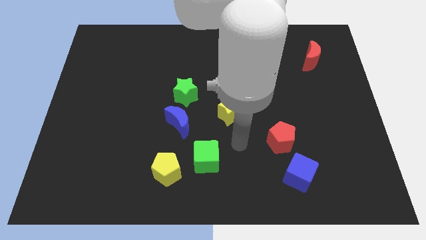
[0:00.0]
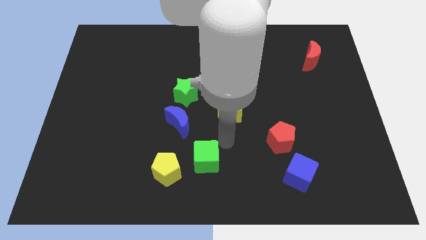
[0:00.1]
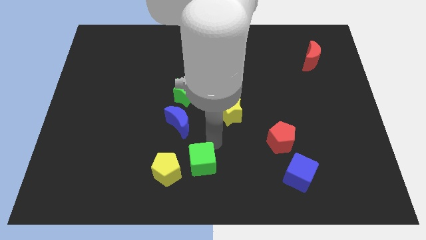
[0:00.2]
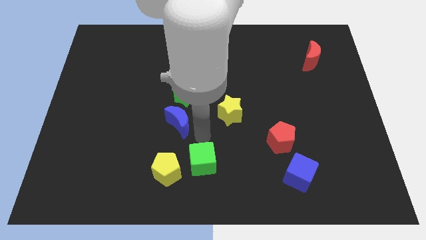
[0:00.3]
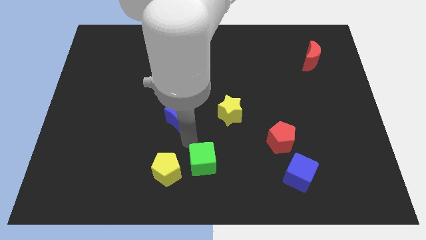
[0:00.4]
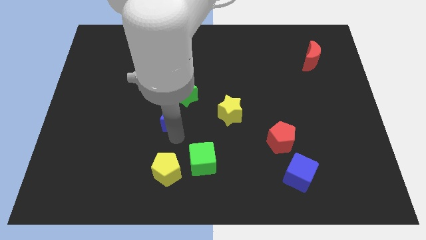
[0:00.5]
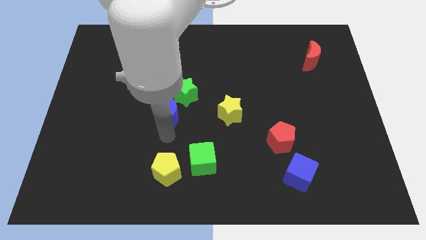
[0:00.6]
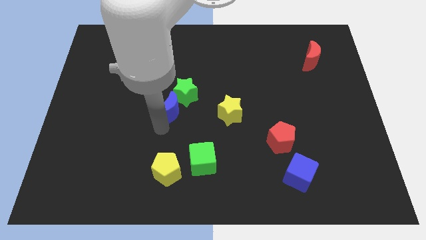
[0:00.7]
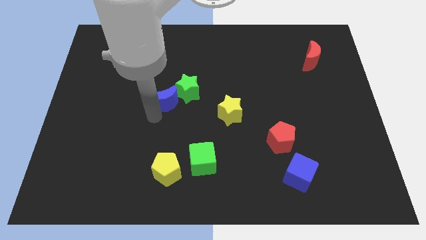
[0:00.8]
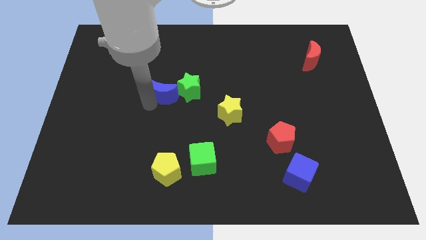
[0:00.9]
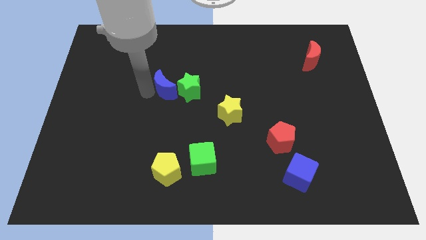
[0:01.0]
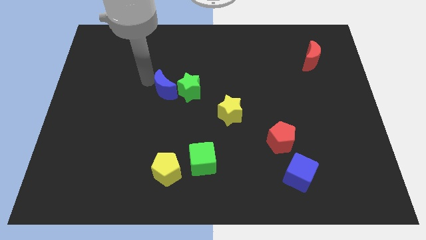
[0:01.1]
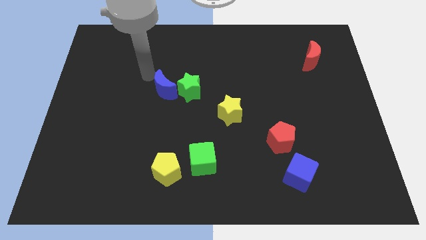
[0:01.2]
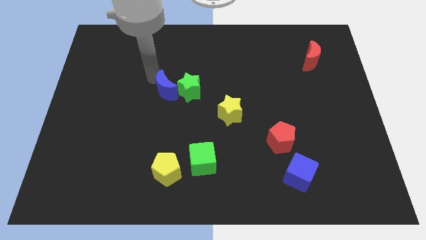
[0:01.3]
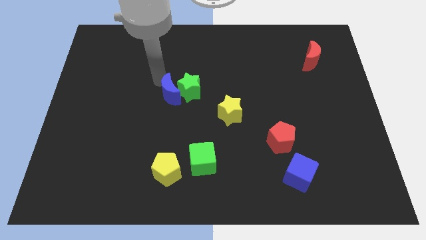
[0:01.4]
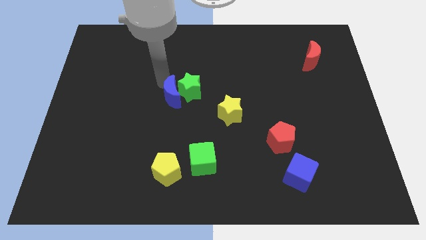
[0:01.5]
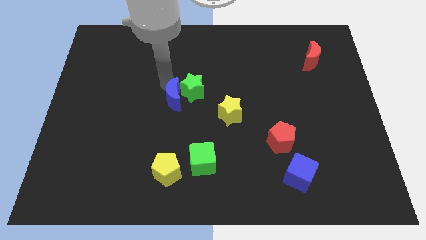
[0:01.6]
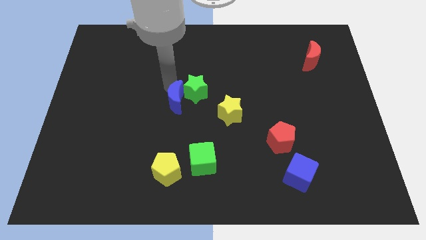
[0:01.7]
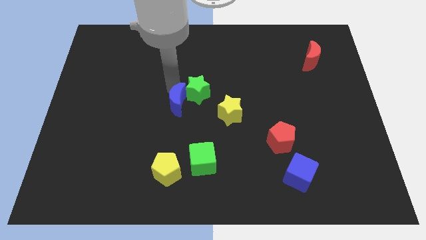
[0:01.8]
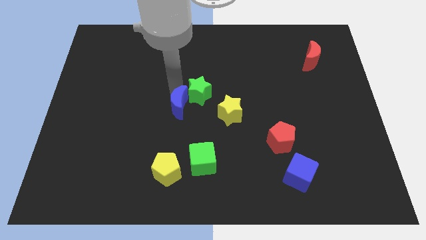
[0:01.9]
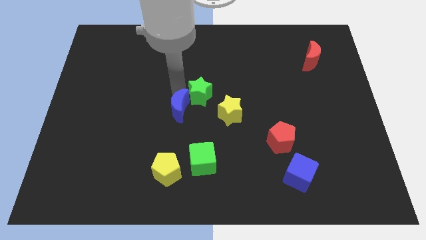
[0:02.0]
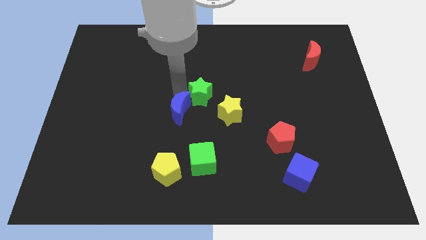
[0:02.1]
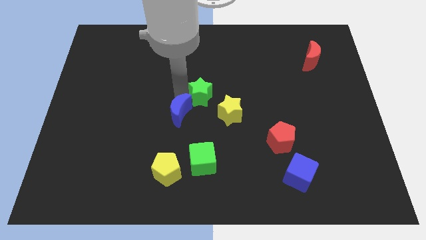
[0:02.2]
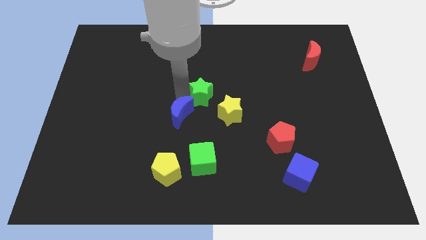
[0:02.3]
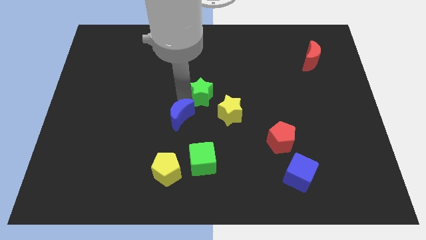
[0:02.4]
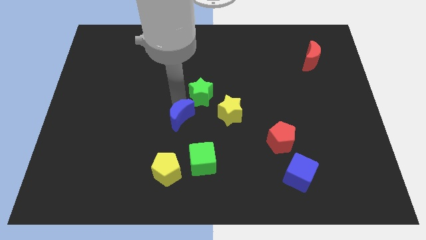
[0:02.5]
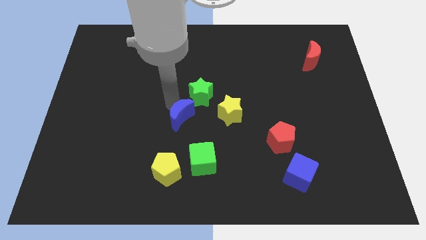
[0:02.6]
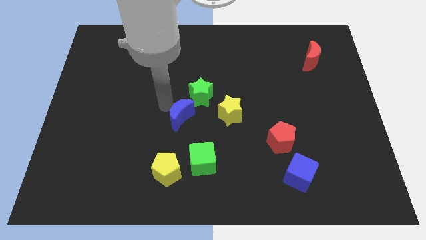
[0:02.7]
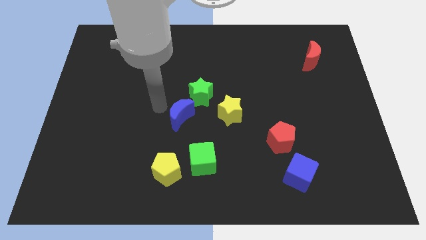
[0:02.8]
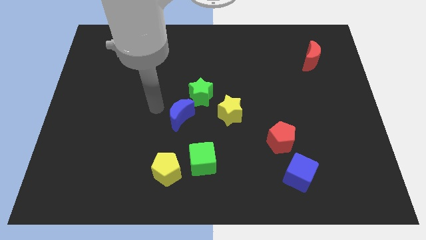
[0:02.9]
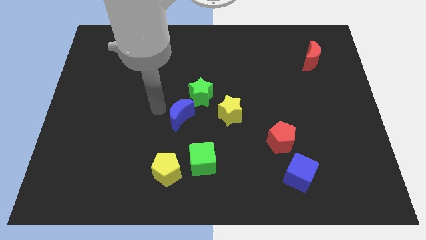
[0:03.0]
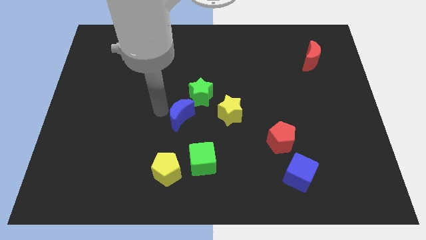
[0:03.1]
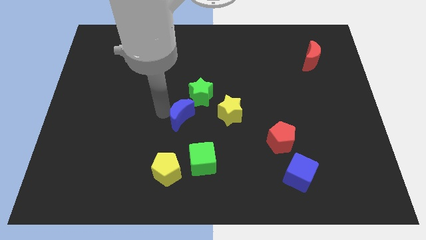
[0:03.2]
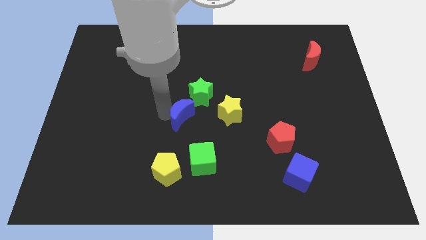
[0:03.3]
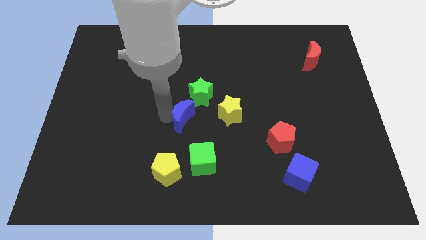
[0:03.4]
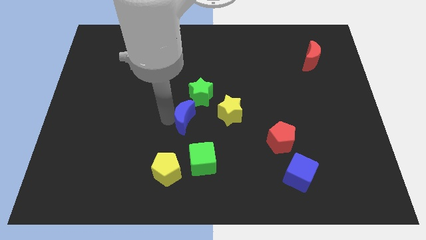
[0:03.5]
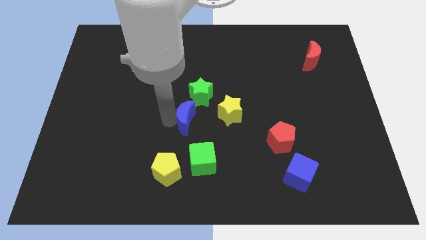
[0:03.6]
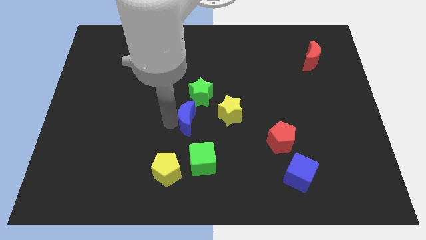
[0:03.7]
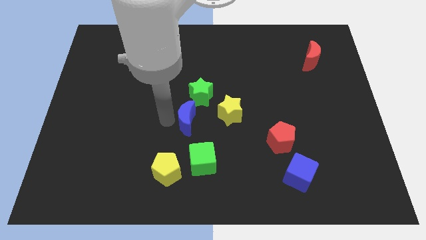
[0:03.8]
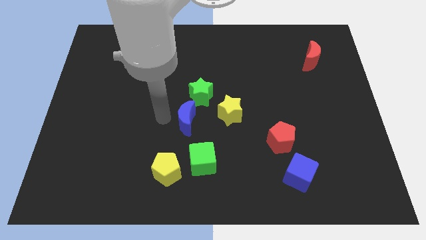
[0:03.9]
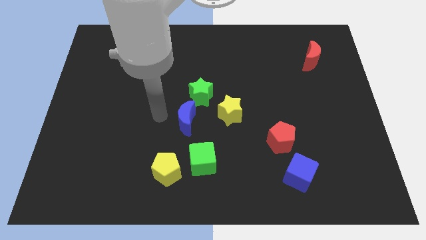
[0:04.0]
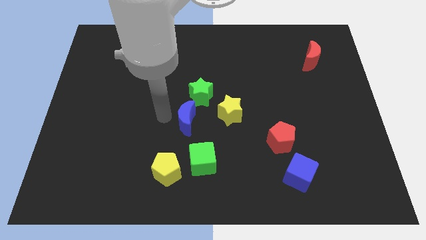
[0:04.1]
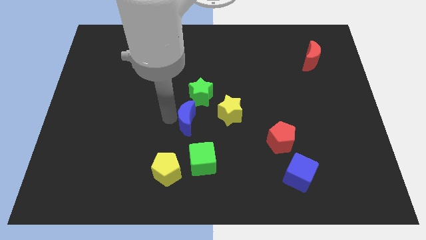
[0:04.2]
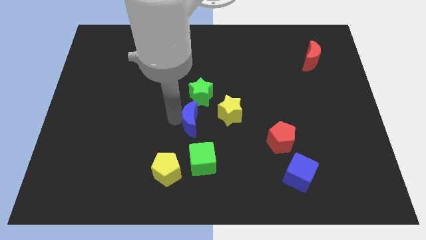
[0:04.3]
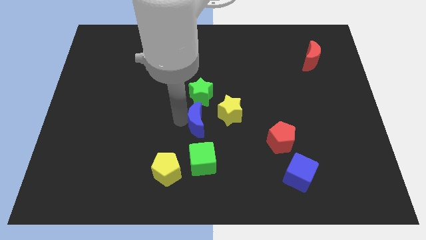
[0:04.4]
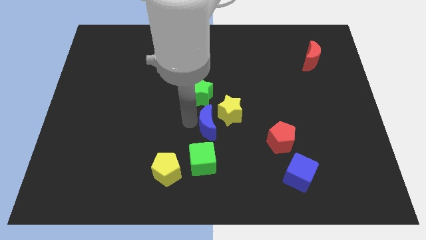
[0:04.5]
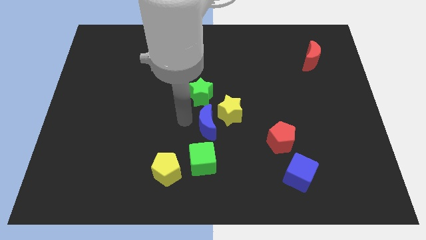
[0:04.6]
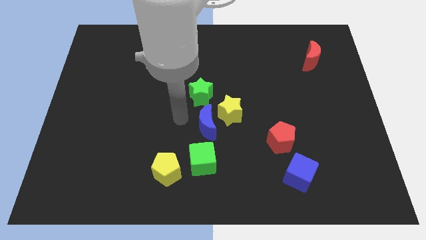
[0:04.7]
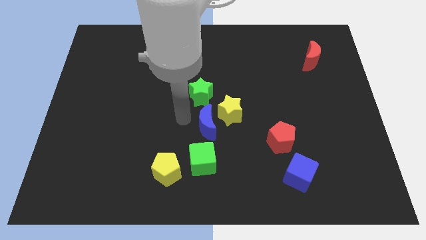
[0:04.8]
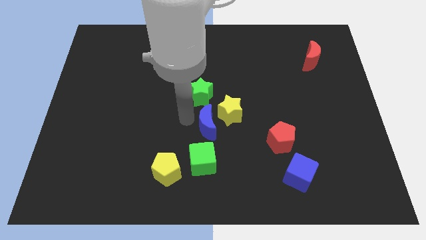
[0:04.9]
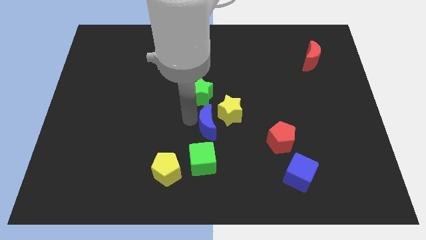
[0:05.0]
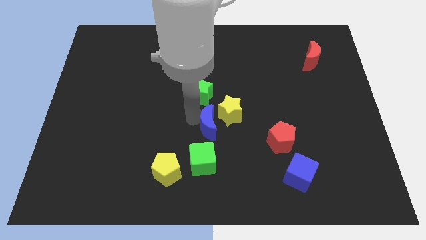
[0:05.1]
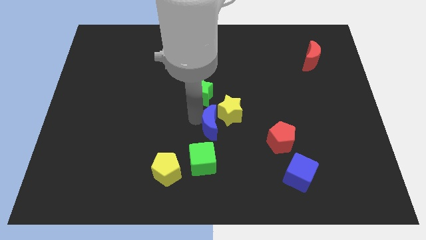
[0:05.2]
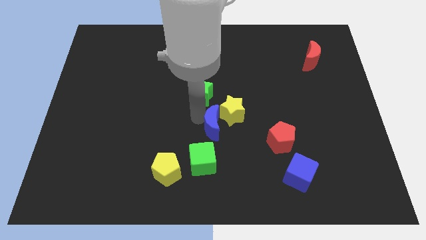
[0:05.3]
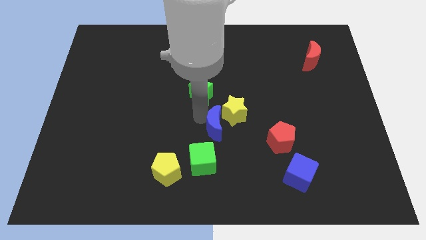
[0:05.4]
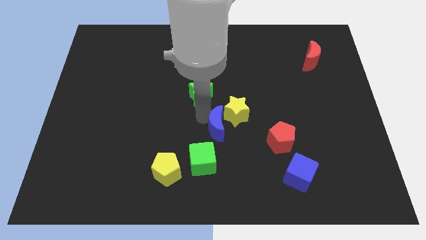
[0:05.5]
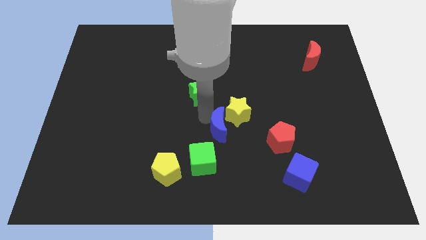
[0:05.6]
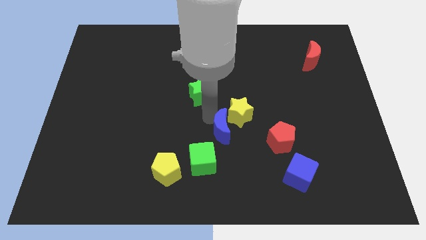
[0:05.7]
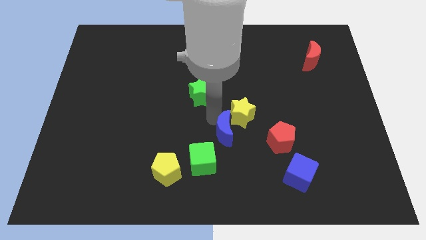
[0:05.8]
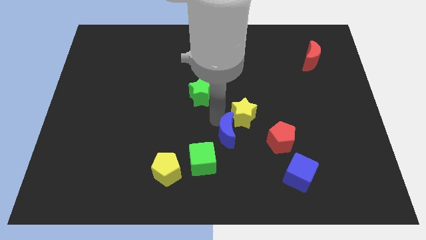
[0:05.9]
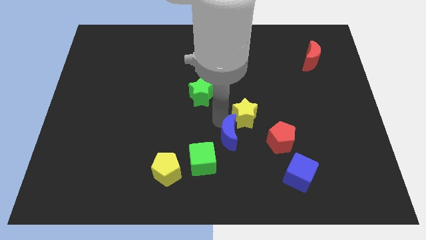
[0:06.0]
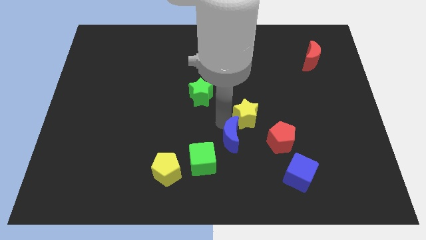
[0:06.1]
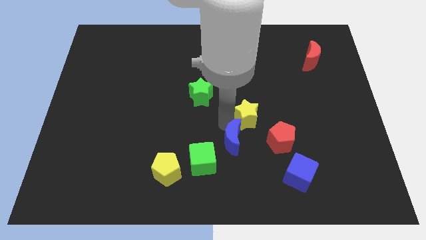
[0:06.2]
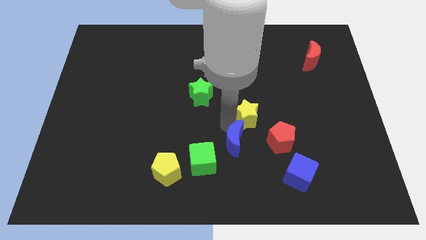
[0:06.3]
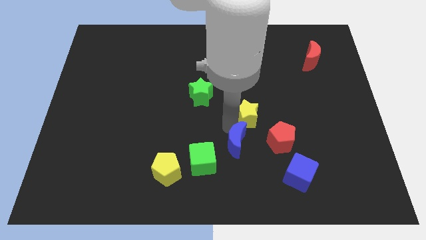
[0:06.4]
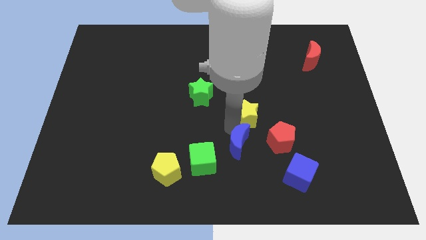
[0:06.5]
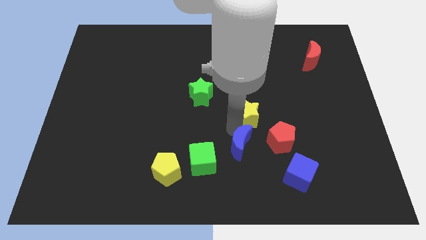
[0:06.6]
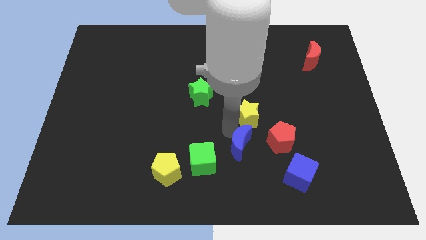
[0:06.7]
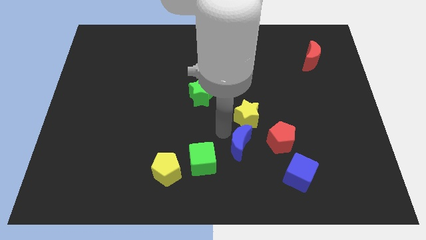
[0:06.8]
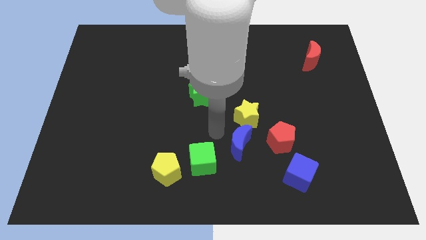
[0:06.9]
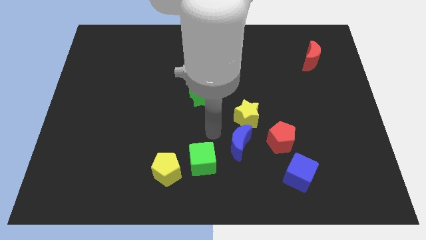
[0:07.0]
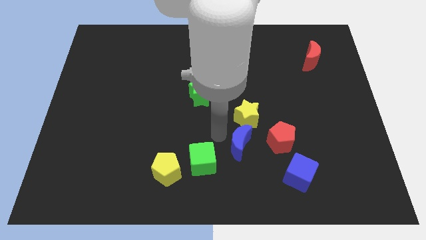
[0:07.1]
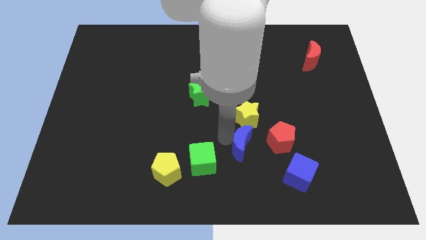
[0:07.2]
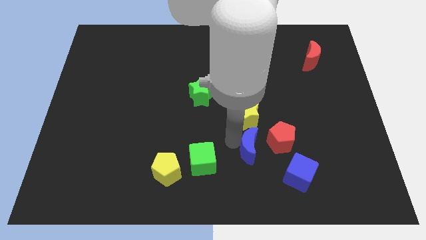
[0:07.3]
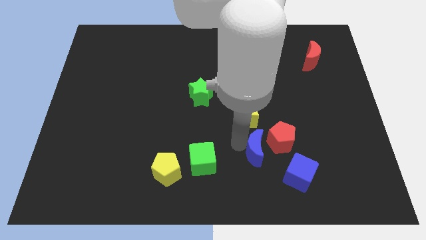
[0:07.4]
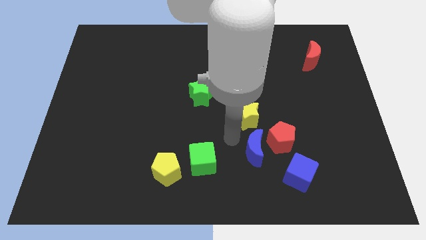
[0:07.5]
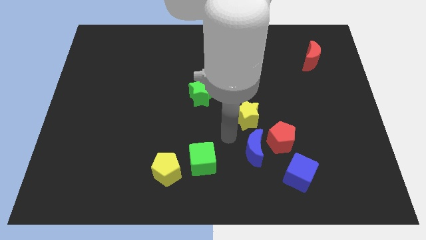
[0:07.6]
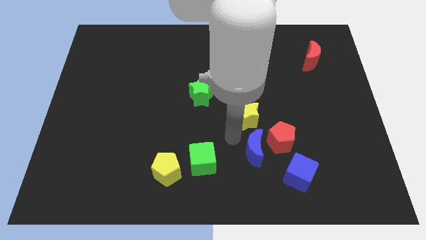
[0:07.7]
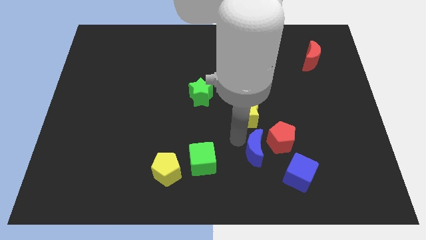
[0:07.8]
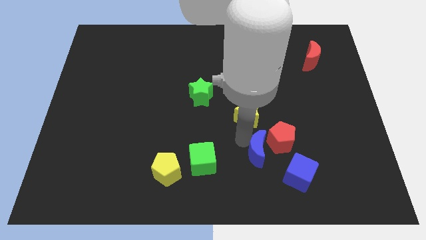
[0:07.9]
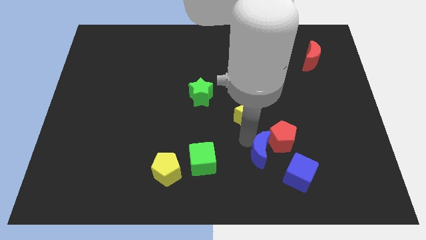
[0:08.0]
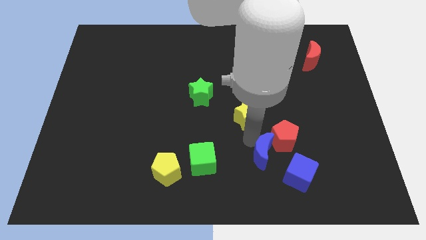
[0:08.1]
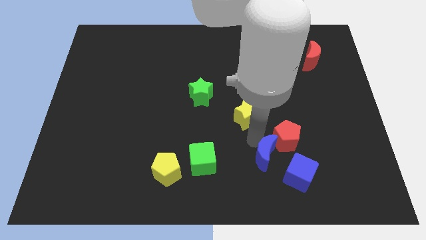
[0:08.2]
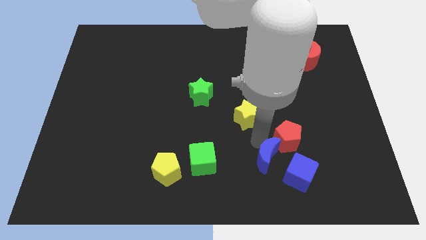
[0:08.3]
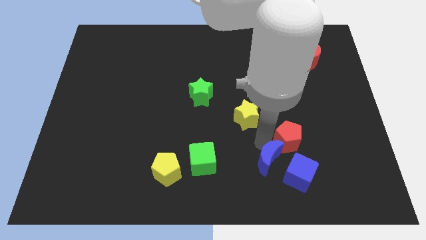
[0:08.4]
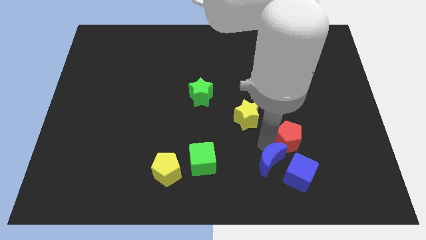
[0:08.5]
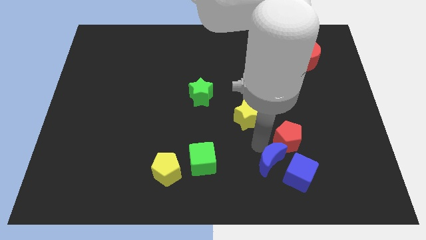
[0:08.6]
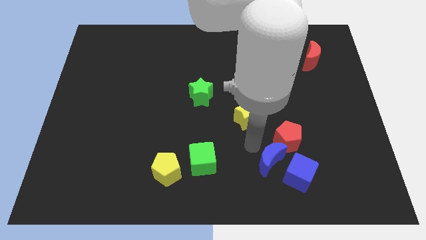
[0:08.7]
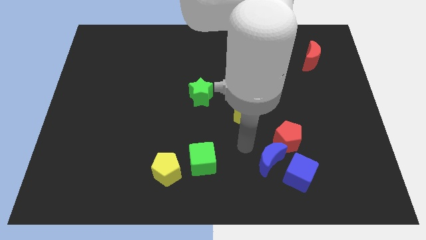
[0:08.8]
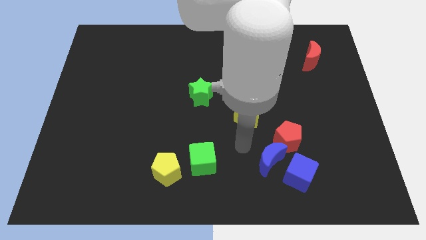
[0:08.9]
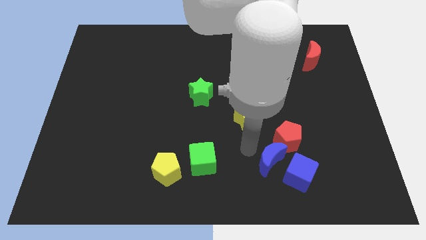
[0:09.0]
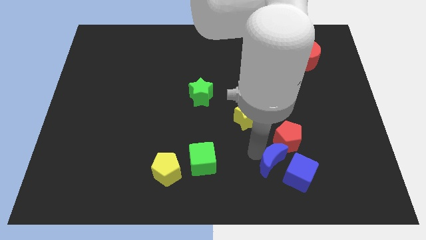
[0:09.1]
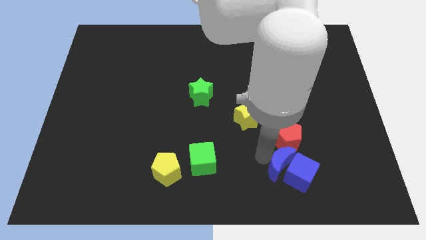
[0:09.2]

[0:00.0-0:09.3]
put the blue moon towards the blue cube
